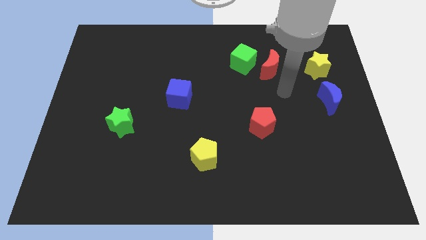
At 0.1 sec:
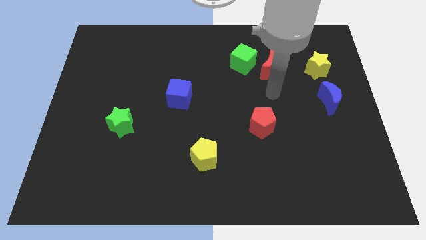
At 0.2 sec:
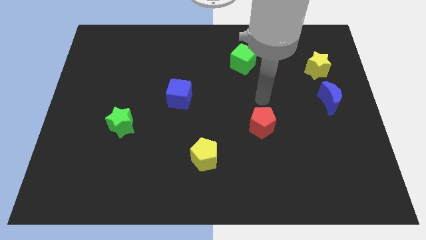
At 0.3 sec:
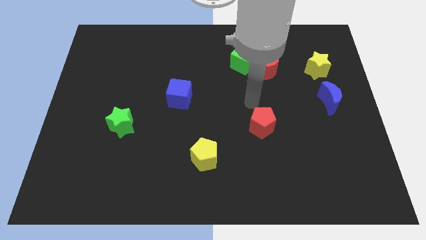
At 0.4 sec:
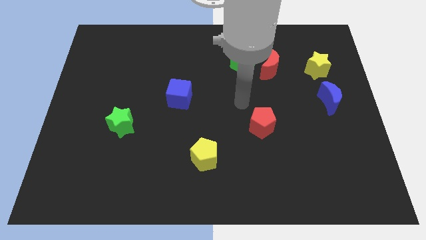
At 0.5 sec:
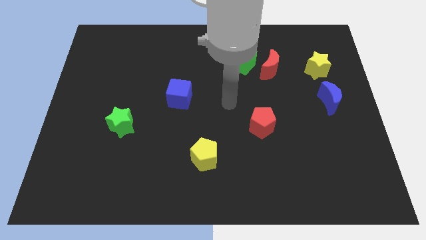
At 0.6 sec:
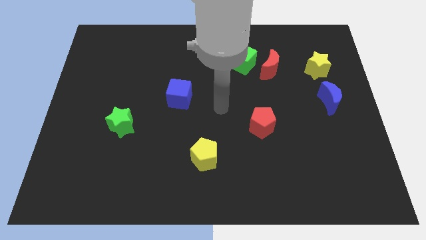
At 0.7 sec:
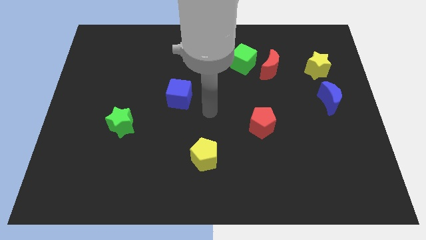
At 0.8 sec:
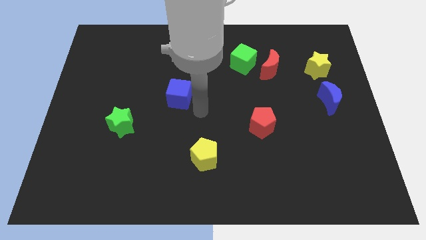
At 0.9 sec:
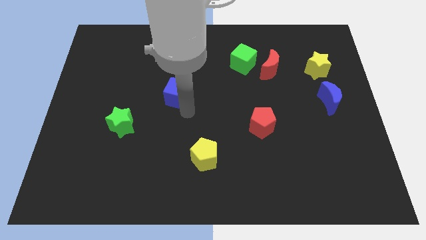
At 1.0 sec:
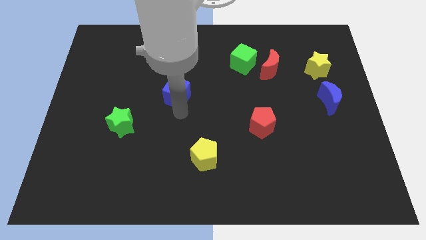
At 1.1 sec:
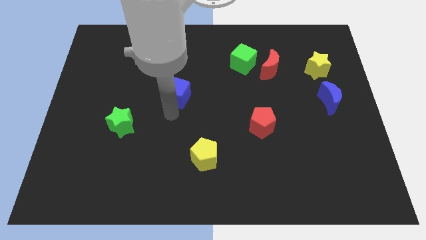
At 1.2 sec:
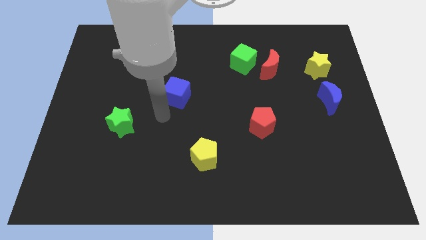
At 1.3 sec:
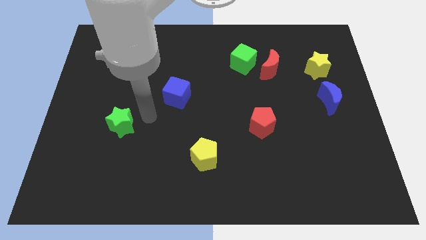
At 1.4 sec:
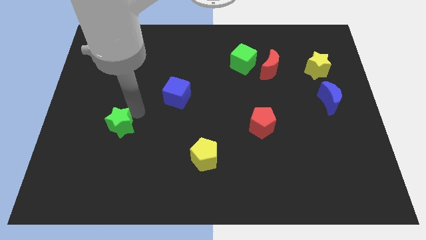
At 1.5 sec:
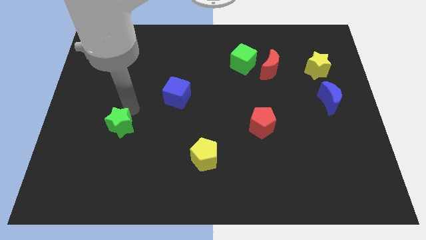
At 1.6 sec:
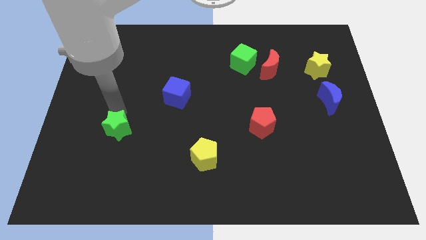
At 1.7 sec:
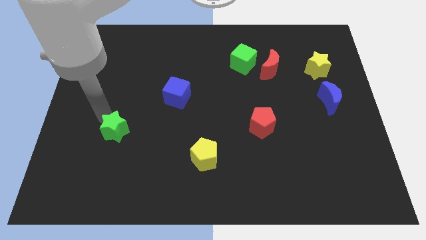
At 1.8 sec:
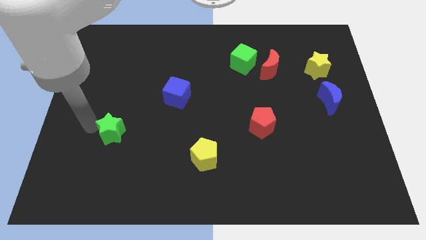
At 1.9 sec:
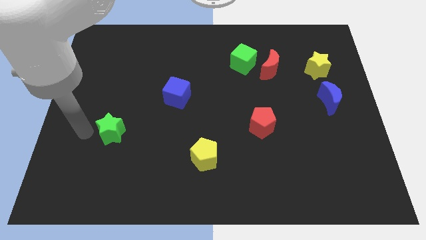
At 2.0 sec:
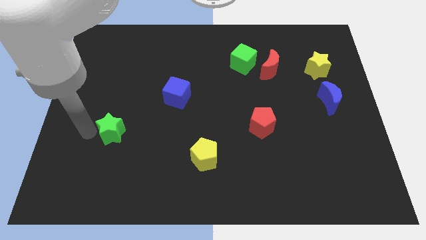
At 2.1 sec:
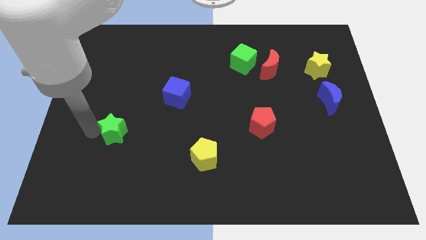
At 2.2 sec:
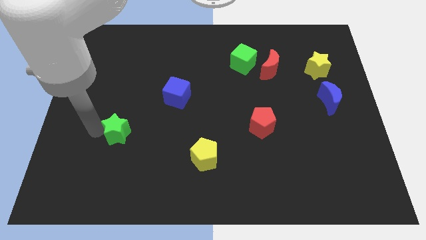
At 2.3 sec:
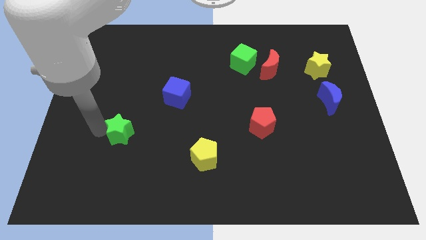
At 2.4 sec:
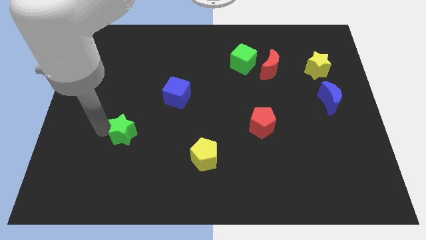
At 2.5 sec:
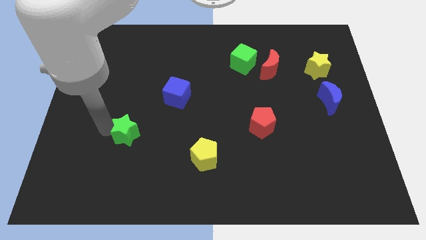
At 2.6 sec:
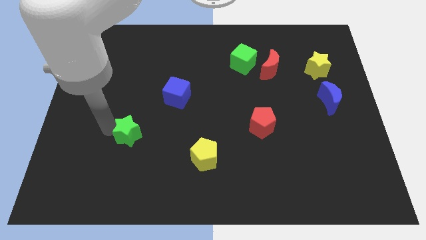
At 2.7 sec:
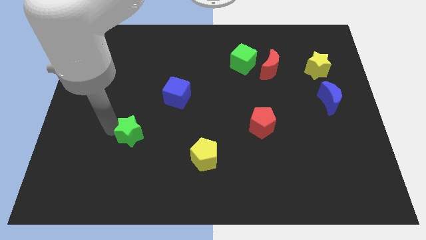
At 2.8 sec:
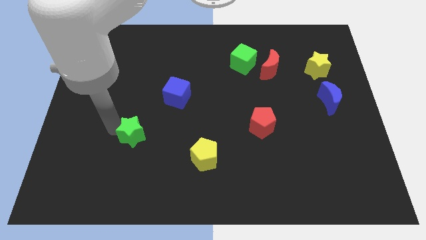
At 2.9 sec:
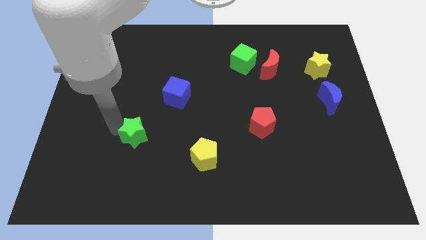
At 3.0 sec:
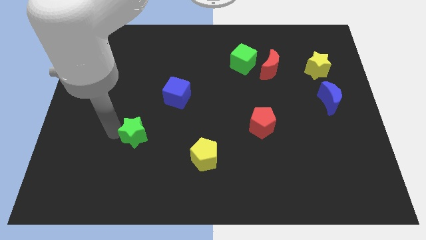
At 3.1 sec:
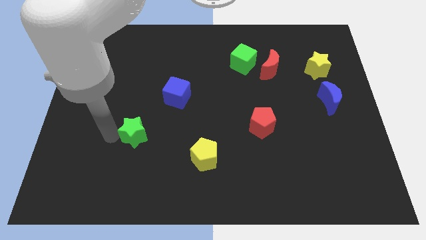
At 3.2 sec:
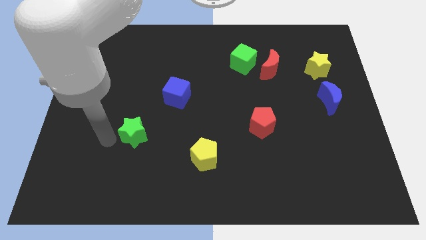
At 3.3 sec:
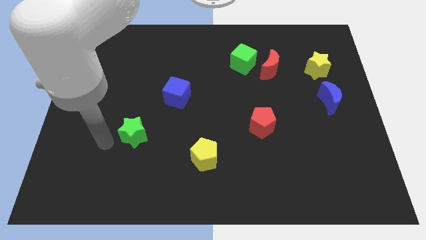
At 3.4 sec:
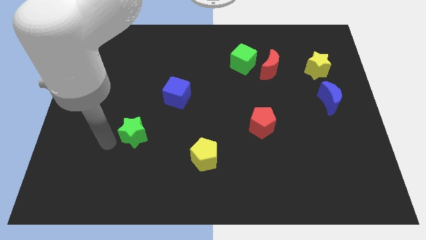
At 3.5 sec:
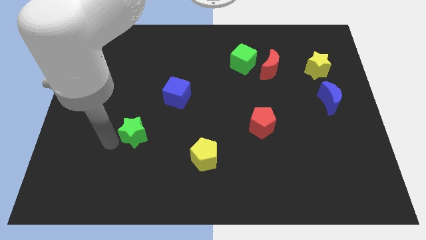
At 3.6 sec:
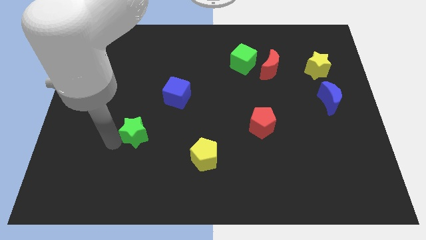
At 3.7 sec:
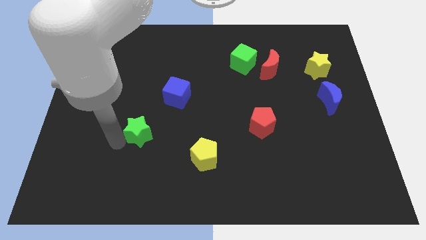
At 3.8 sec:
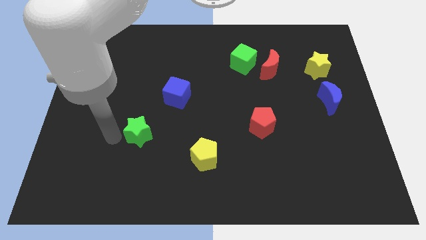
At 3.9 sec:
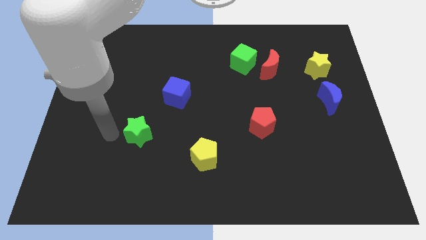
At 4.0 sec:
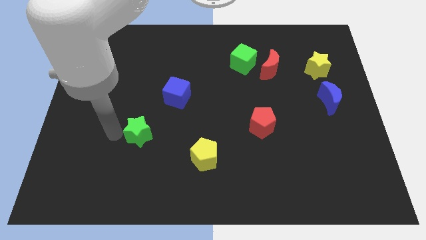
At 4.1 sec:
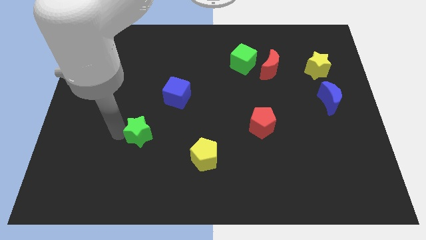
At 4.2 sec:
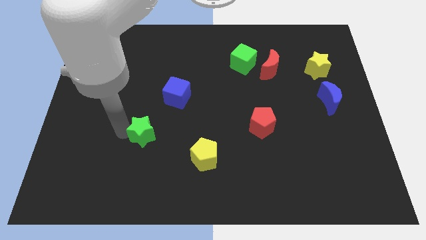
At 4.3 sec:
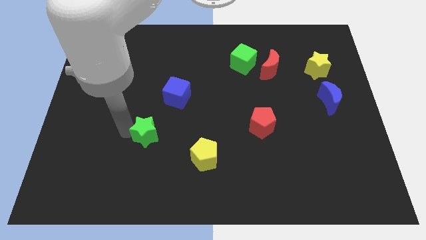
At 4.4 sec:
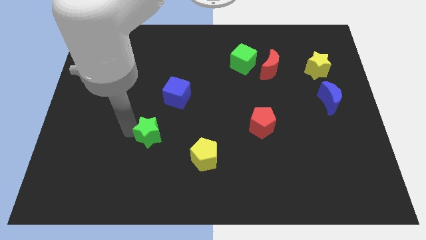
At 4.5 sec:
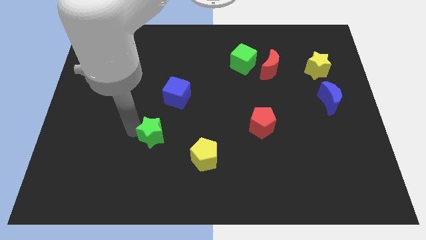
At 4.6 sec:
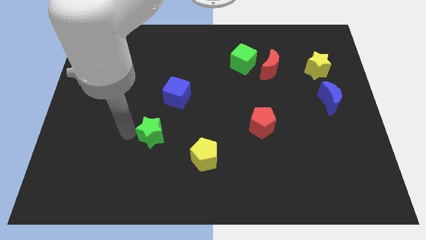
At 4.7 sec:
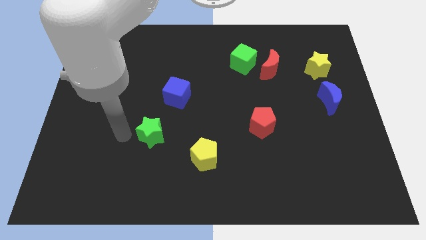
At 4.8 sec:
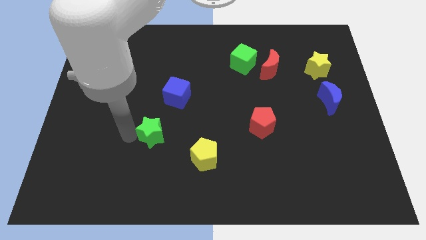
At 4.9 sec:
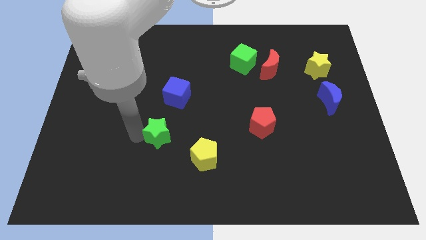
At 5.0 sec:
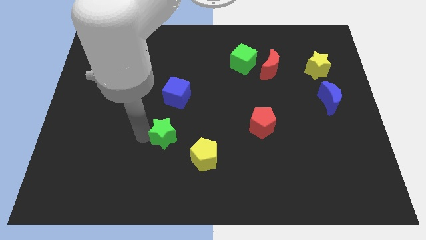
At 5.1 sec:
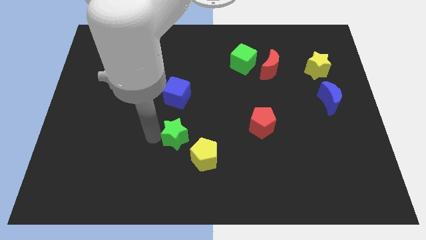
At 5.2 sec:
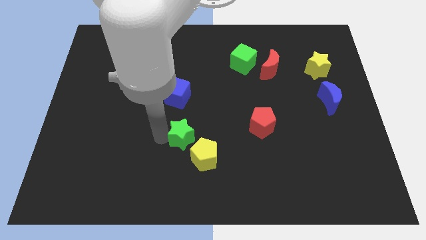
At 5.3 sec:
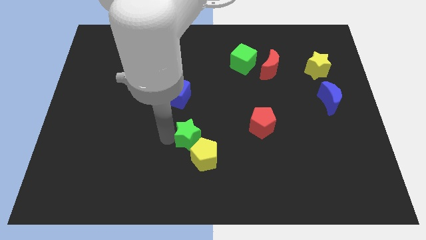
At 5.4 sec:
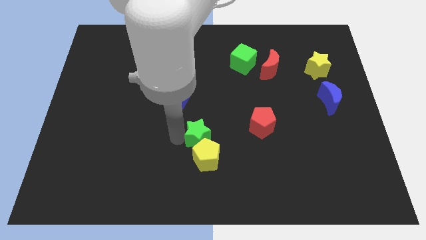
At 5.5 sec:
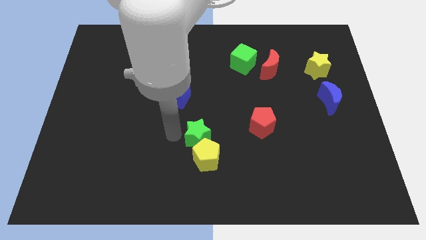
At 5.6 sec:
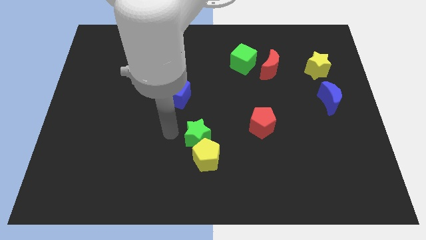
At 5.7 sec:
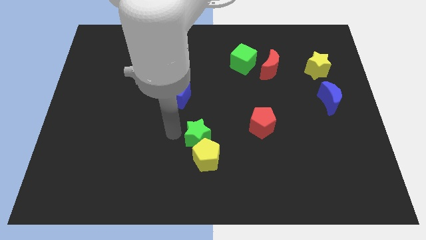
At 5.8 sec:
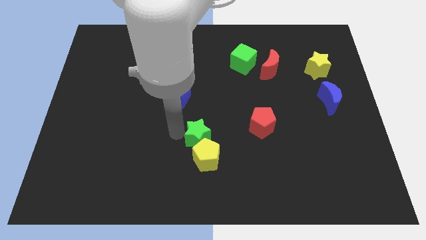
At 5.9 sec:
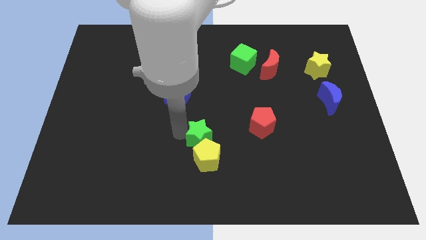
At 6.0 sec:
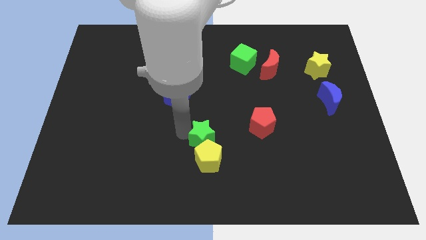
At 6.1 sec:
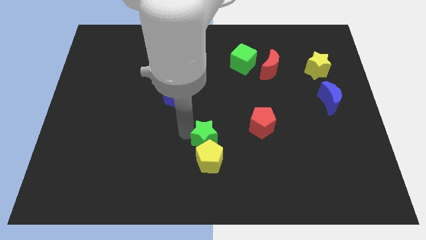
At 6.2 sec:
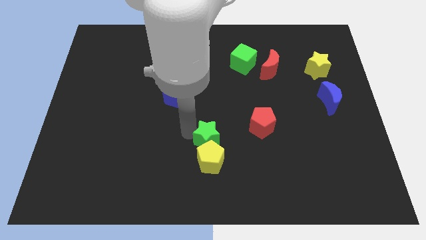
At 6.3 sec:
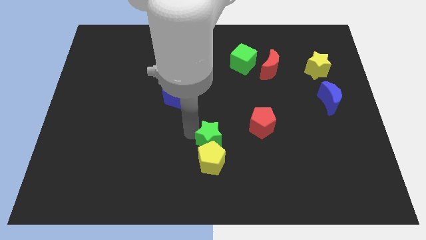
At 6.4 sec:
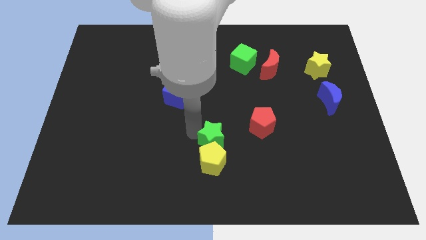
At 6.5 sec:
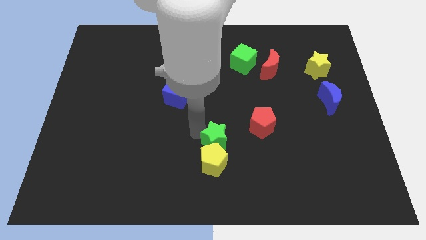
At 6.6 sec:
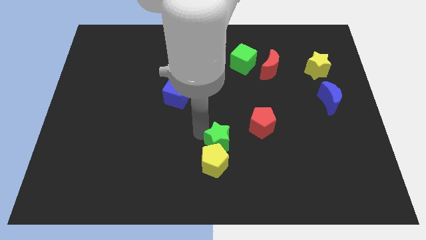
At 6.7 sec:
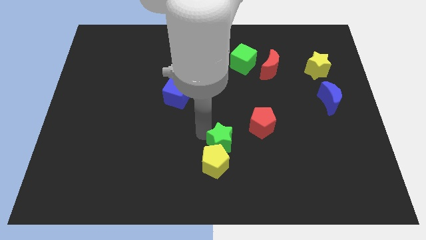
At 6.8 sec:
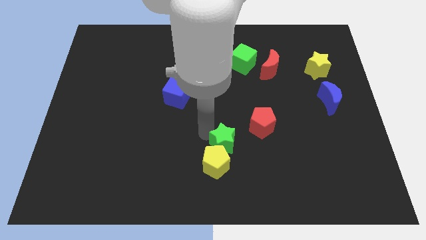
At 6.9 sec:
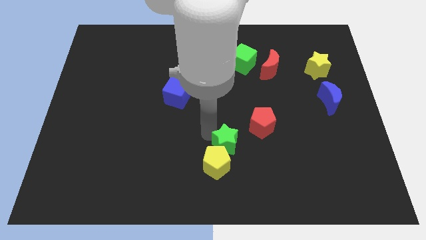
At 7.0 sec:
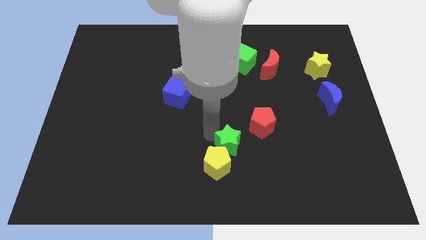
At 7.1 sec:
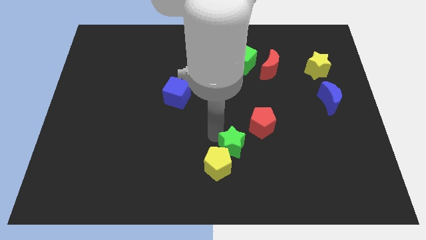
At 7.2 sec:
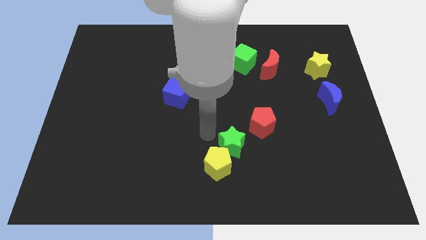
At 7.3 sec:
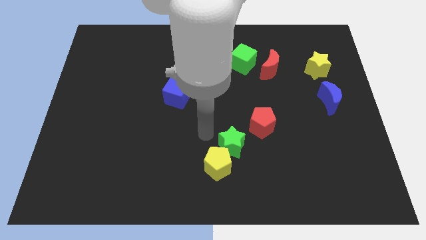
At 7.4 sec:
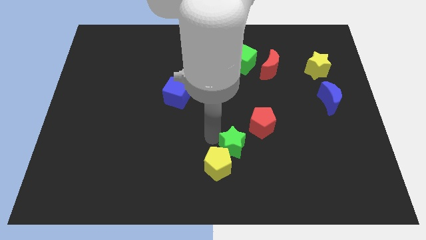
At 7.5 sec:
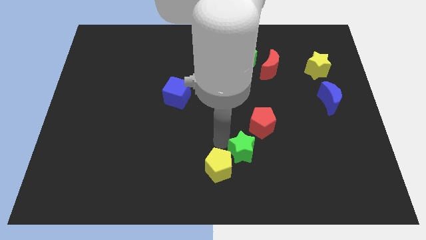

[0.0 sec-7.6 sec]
slide the green star to the right side of the yellow pentagon

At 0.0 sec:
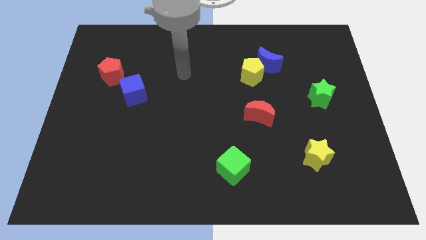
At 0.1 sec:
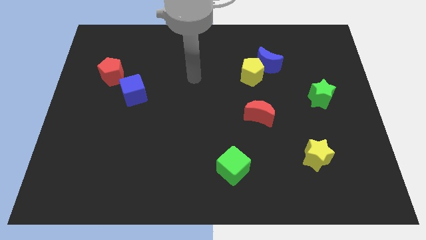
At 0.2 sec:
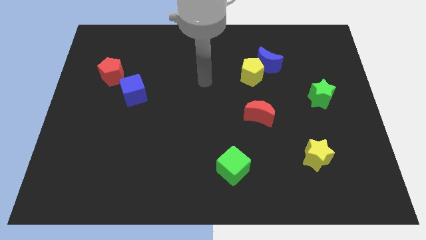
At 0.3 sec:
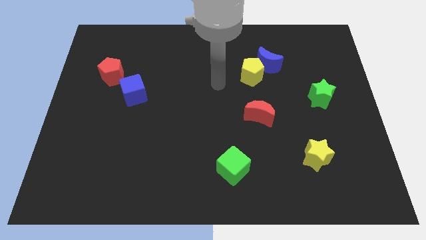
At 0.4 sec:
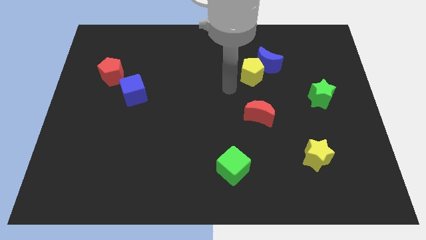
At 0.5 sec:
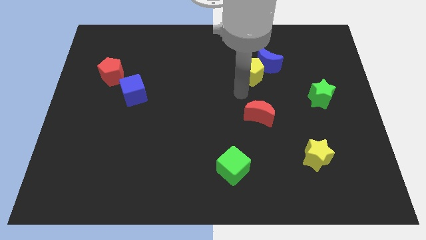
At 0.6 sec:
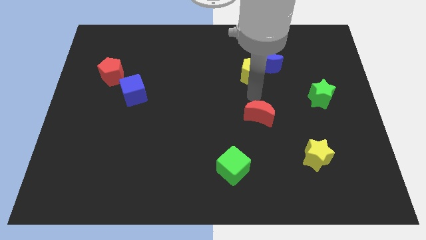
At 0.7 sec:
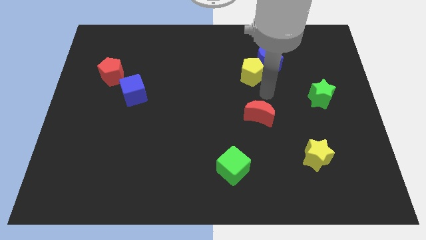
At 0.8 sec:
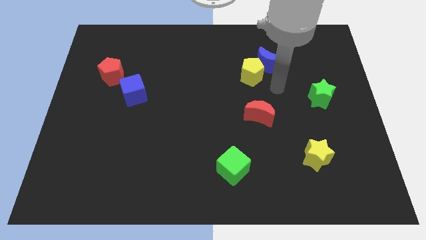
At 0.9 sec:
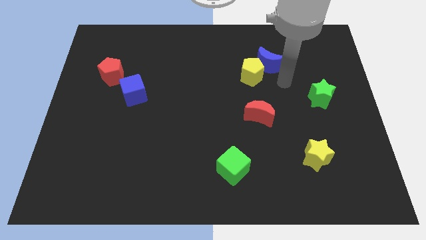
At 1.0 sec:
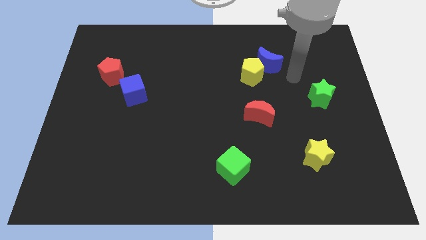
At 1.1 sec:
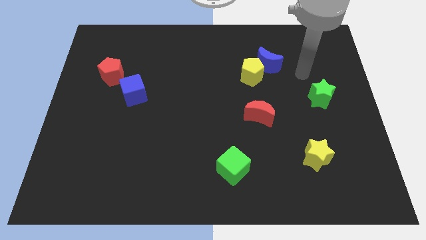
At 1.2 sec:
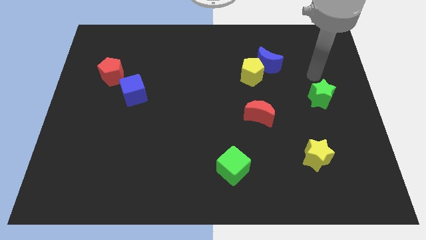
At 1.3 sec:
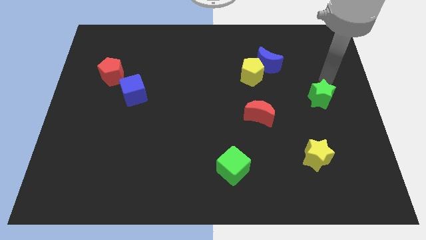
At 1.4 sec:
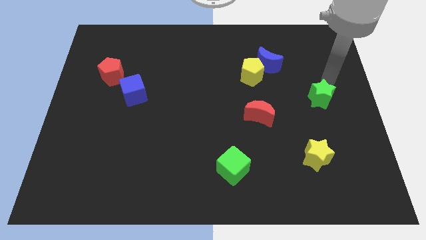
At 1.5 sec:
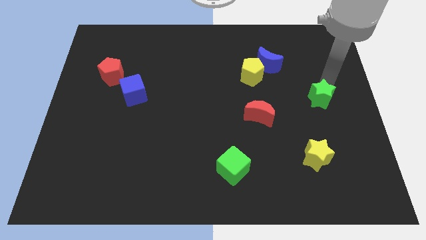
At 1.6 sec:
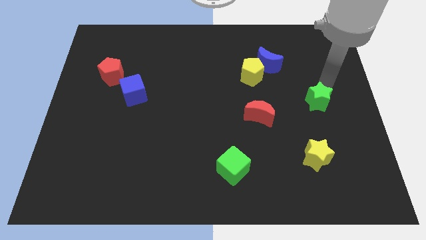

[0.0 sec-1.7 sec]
put the green star above the yellow star
